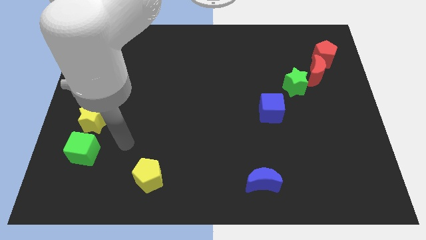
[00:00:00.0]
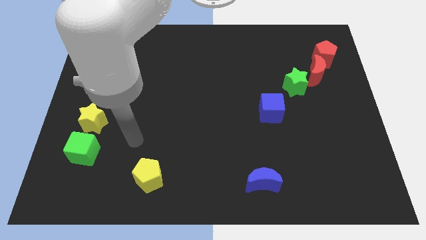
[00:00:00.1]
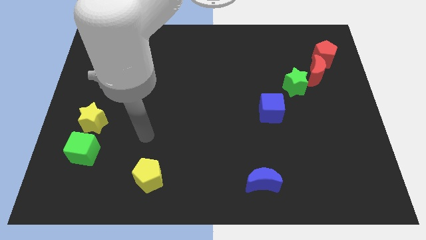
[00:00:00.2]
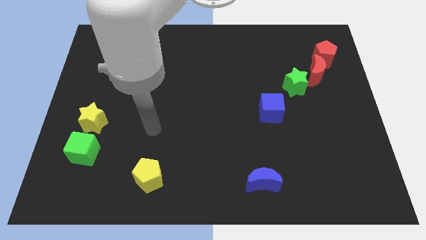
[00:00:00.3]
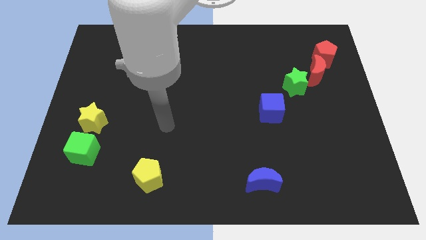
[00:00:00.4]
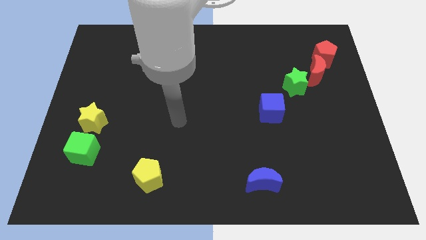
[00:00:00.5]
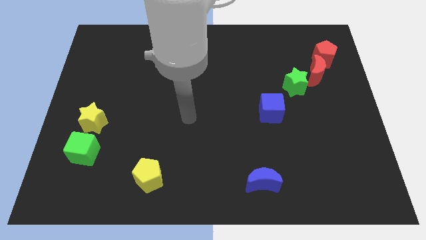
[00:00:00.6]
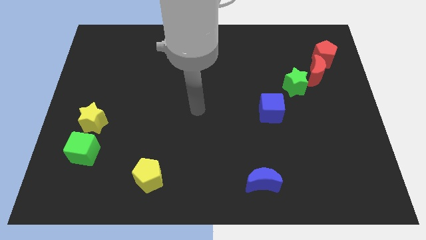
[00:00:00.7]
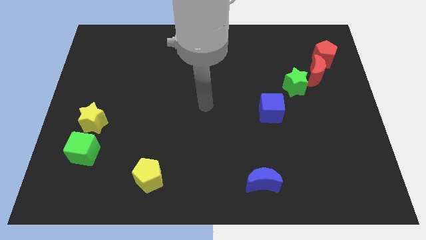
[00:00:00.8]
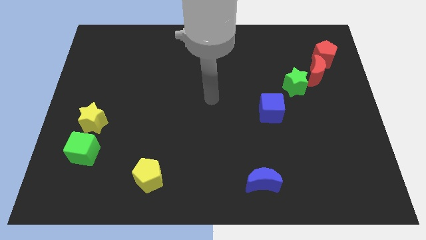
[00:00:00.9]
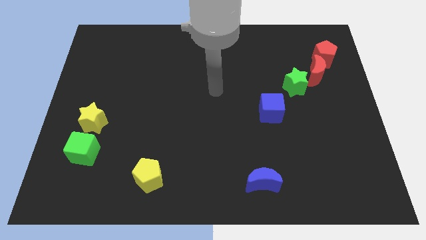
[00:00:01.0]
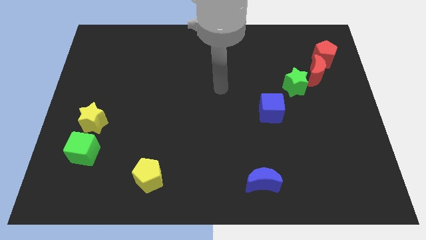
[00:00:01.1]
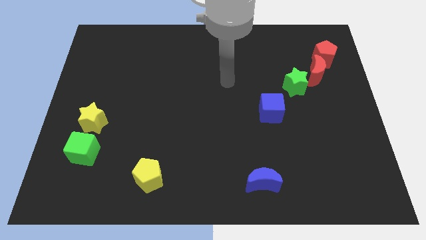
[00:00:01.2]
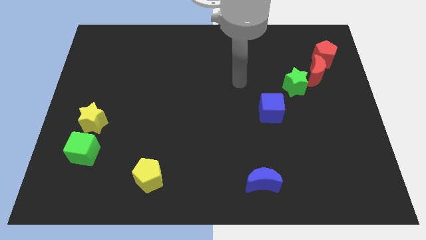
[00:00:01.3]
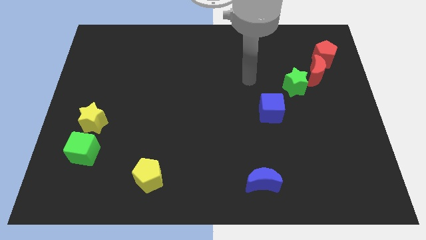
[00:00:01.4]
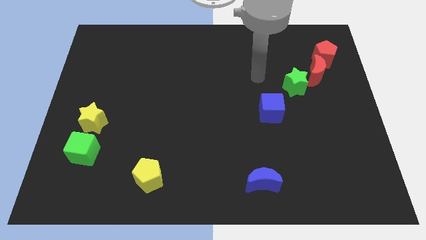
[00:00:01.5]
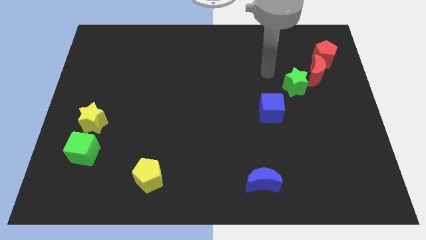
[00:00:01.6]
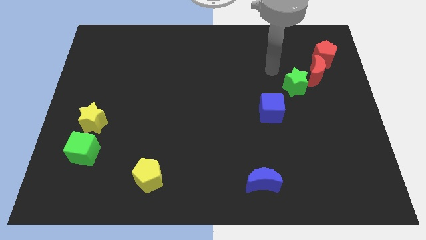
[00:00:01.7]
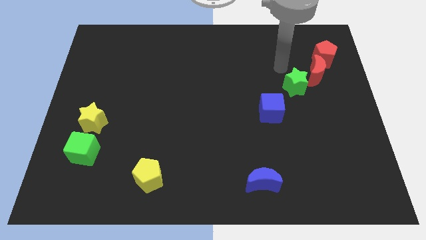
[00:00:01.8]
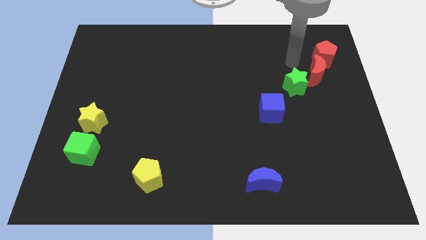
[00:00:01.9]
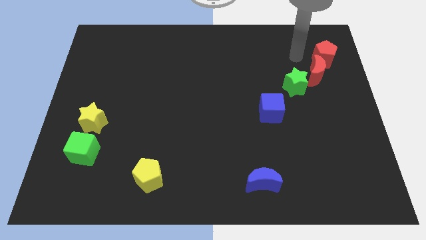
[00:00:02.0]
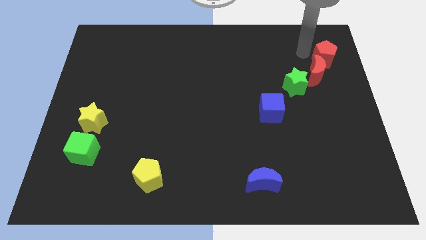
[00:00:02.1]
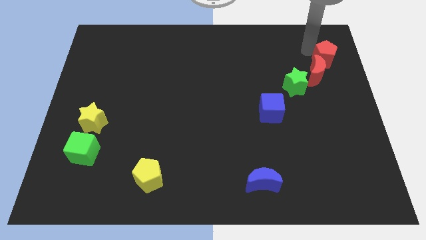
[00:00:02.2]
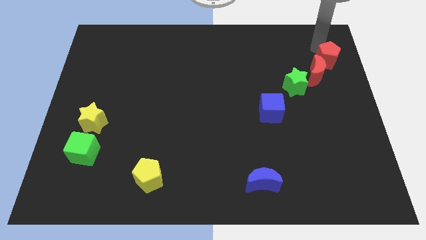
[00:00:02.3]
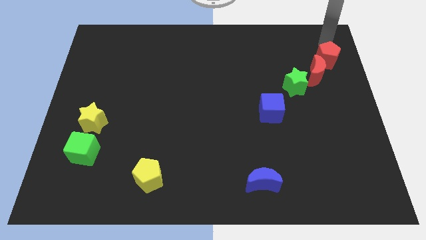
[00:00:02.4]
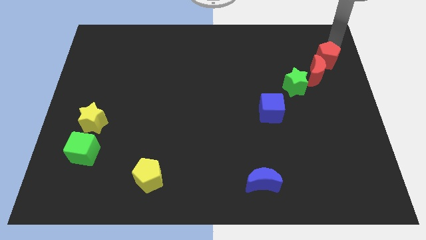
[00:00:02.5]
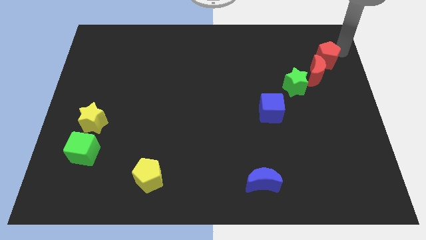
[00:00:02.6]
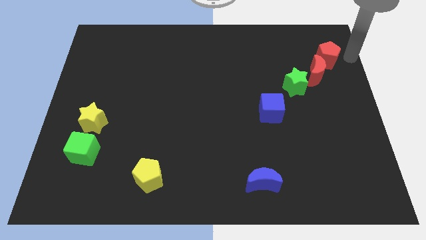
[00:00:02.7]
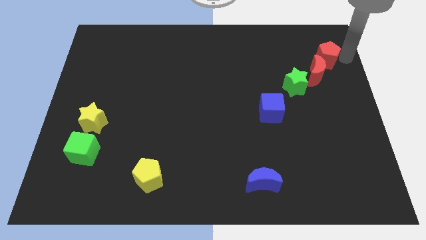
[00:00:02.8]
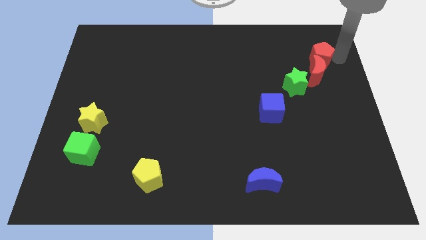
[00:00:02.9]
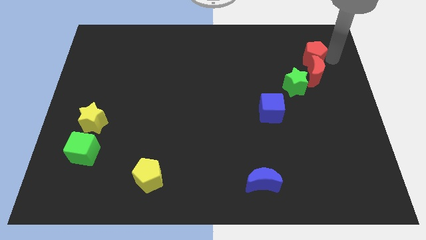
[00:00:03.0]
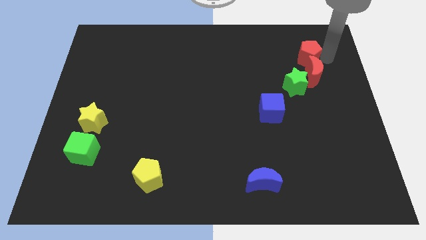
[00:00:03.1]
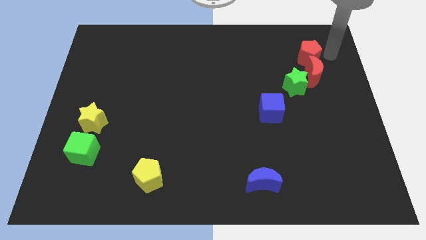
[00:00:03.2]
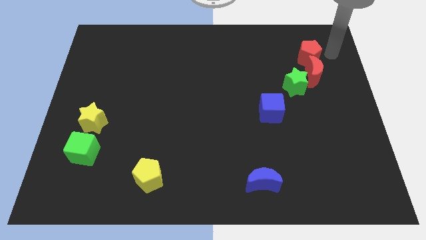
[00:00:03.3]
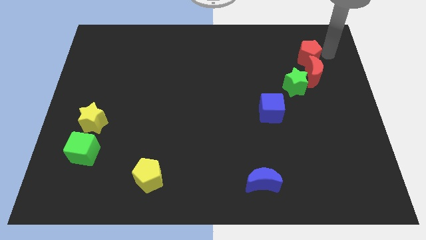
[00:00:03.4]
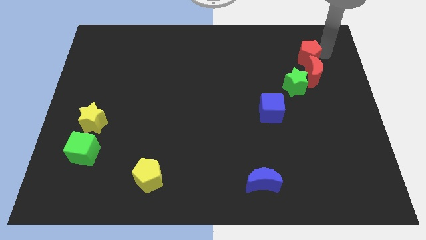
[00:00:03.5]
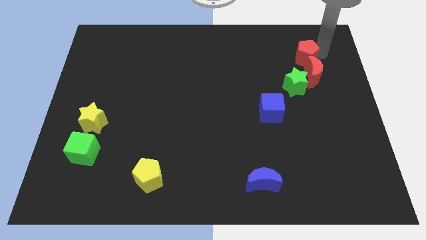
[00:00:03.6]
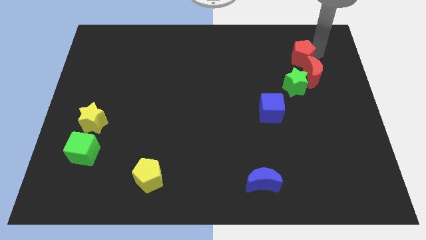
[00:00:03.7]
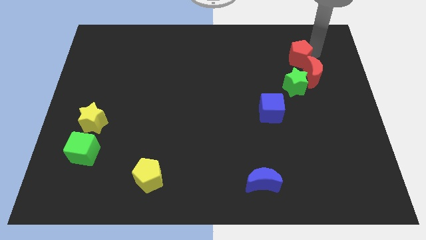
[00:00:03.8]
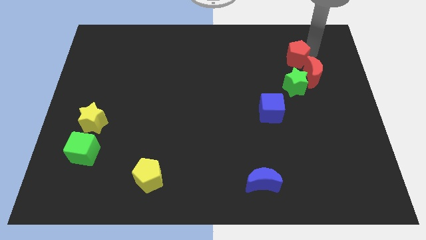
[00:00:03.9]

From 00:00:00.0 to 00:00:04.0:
push the red pentagon to the left somewhat

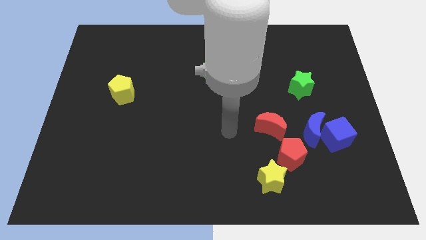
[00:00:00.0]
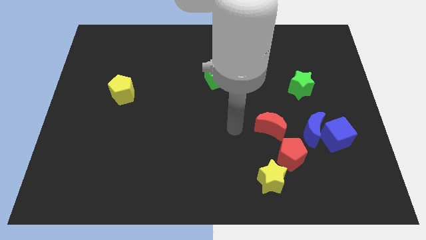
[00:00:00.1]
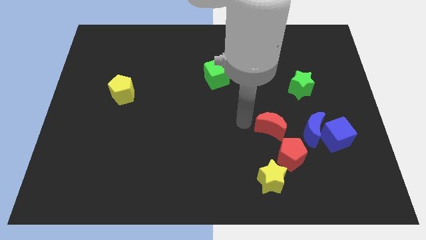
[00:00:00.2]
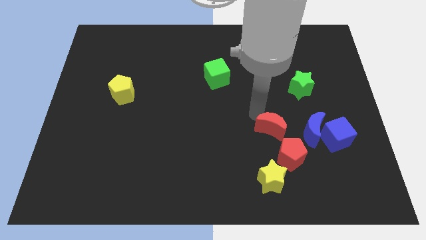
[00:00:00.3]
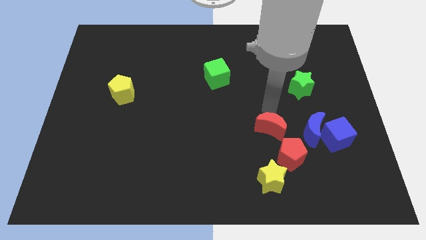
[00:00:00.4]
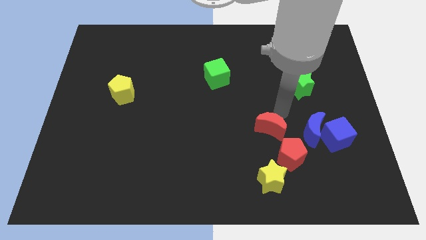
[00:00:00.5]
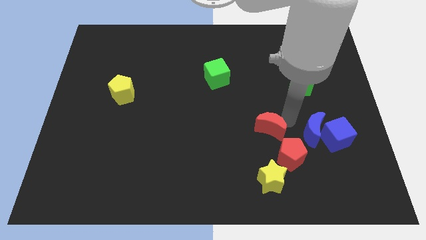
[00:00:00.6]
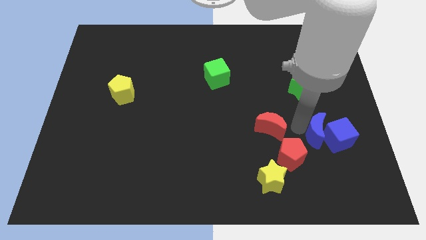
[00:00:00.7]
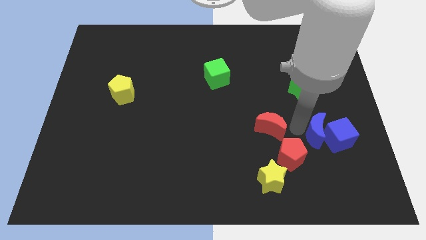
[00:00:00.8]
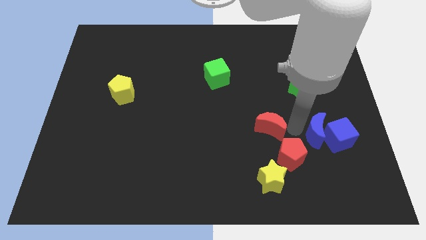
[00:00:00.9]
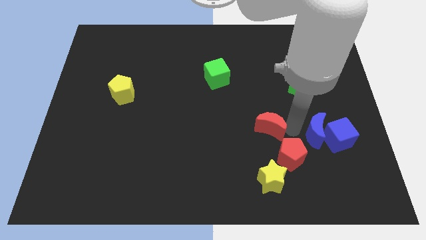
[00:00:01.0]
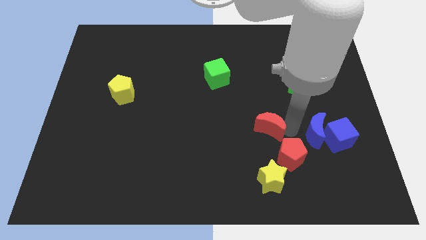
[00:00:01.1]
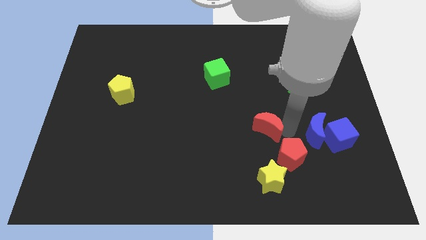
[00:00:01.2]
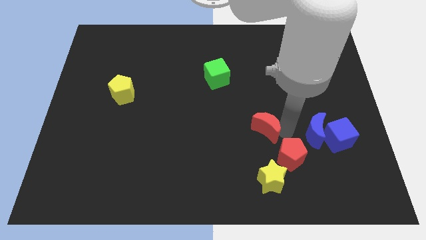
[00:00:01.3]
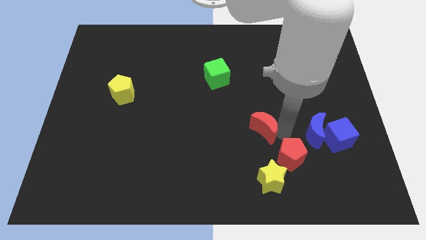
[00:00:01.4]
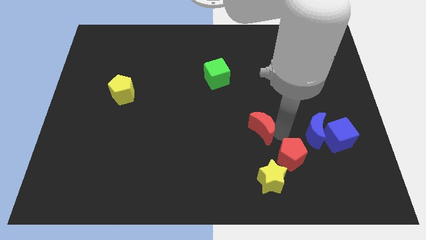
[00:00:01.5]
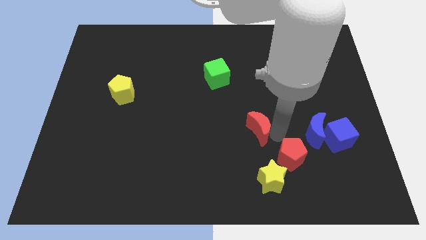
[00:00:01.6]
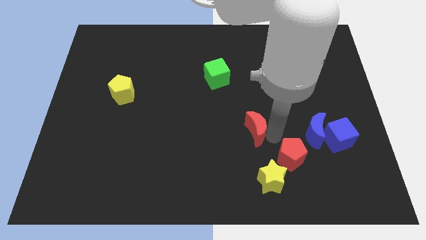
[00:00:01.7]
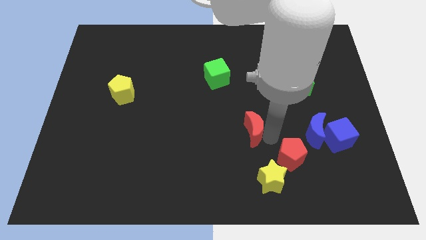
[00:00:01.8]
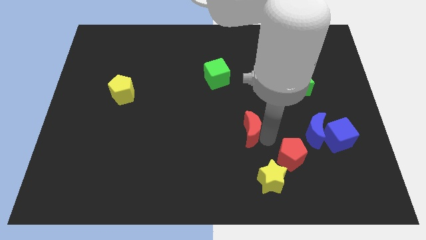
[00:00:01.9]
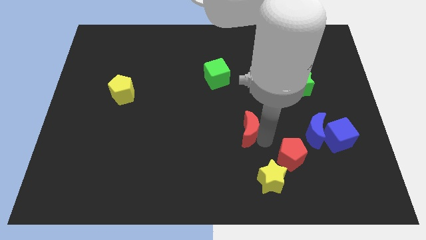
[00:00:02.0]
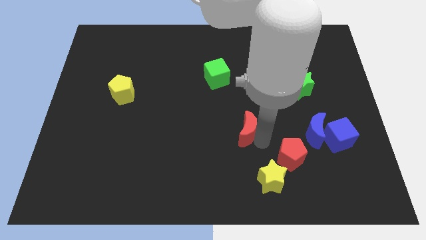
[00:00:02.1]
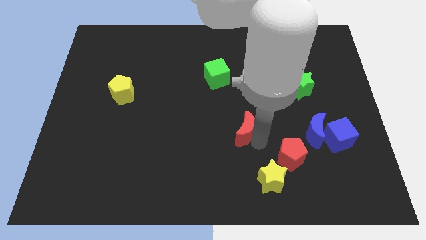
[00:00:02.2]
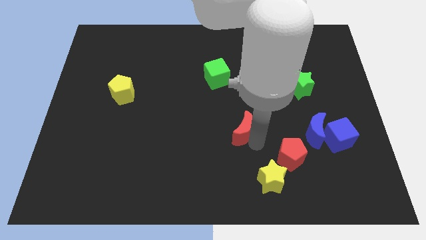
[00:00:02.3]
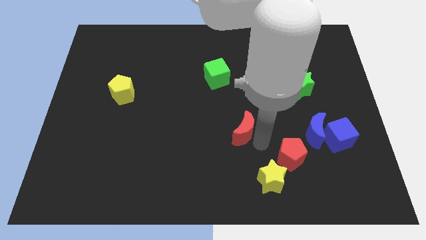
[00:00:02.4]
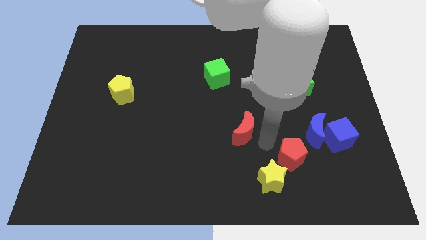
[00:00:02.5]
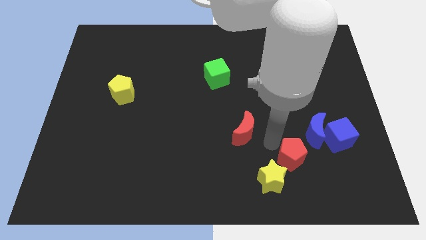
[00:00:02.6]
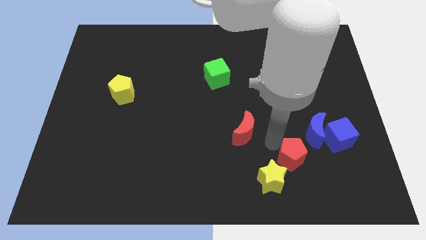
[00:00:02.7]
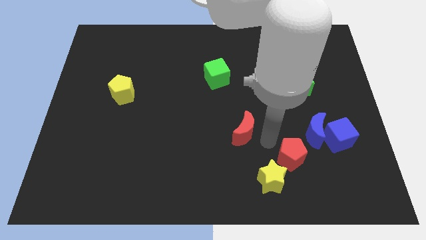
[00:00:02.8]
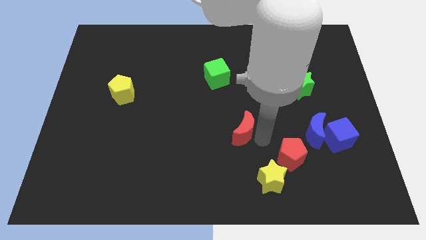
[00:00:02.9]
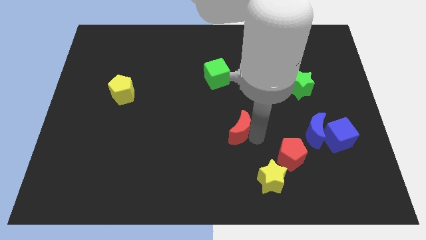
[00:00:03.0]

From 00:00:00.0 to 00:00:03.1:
slide the red moon left a little

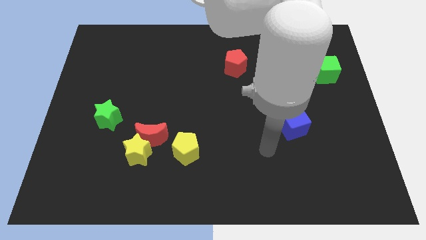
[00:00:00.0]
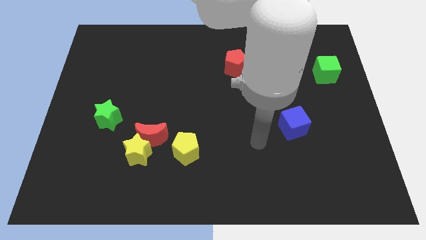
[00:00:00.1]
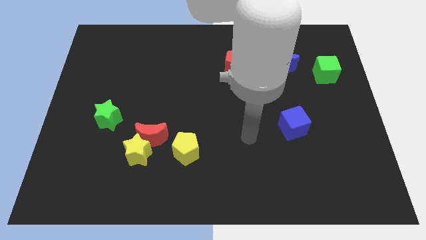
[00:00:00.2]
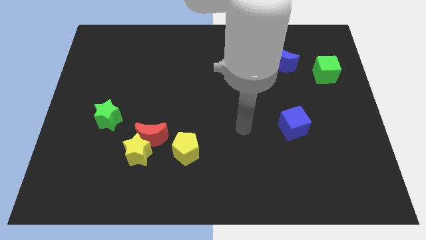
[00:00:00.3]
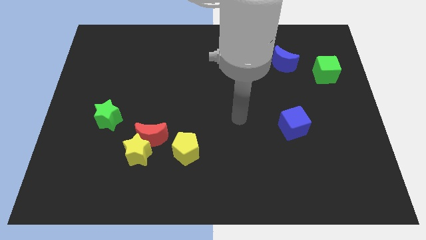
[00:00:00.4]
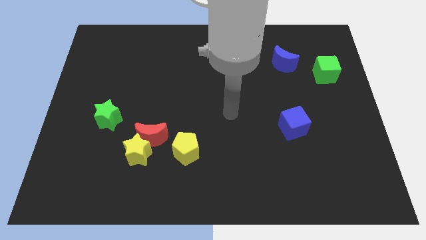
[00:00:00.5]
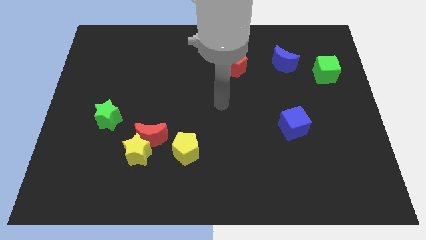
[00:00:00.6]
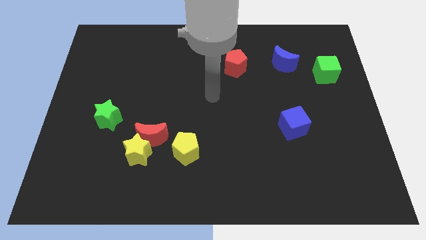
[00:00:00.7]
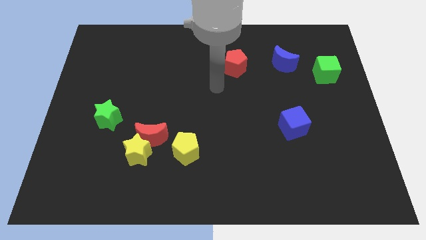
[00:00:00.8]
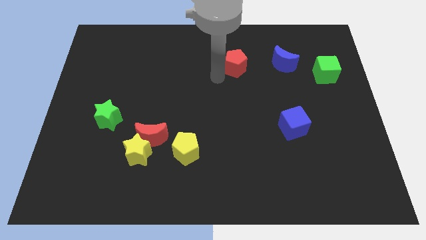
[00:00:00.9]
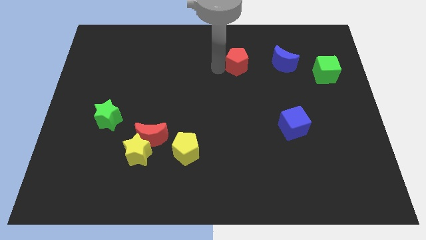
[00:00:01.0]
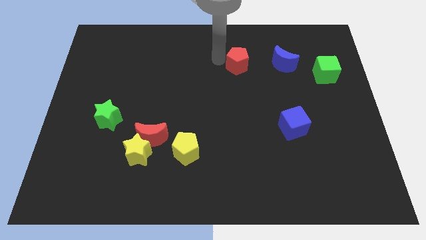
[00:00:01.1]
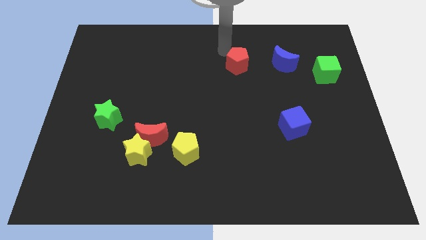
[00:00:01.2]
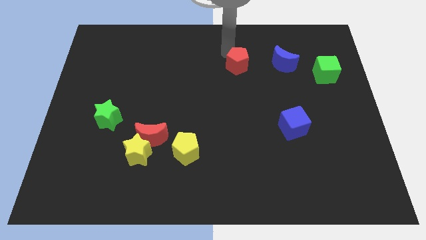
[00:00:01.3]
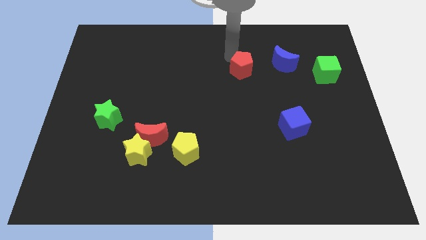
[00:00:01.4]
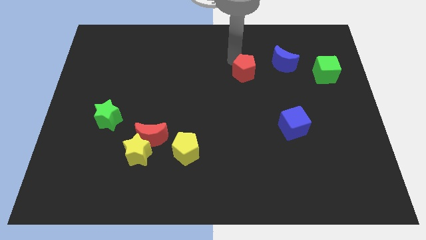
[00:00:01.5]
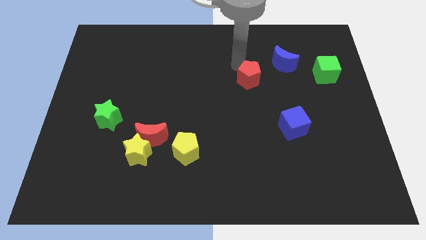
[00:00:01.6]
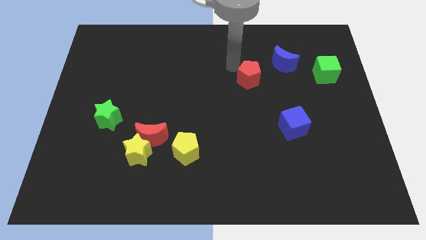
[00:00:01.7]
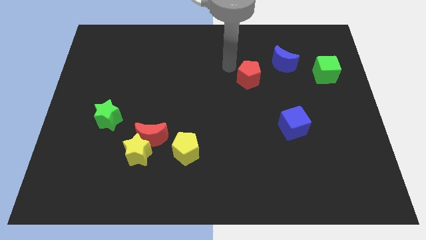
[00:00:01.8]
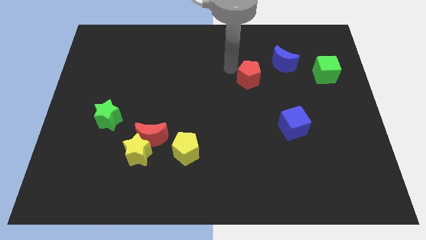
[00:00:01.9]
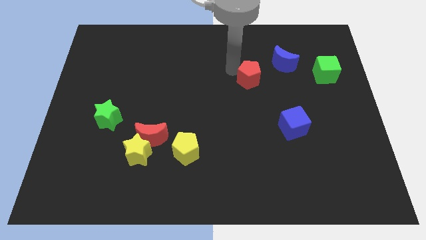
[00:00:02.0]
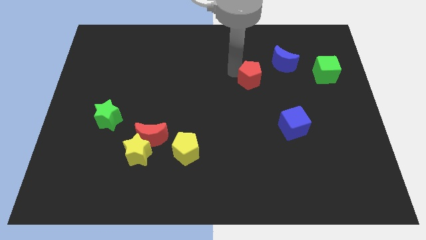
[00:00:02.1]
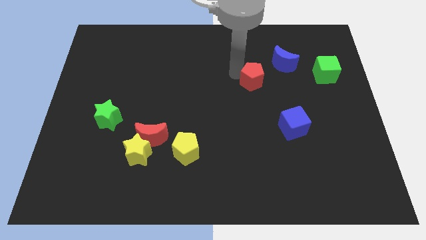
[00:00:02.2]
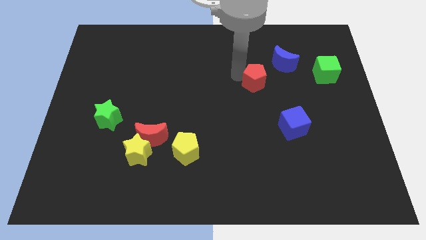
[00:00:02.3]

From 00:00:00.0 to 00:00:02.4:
slightly slide the red pentagon down and then right
